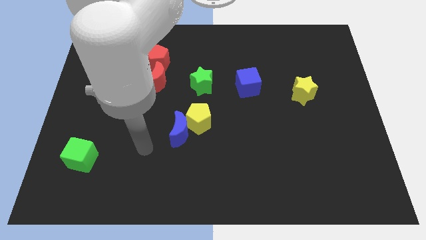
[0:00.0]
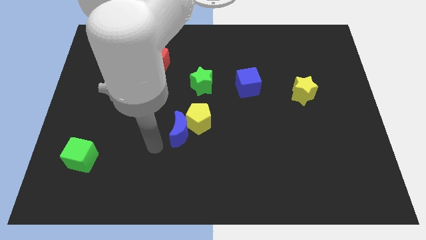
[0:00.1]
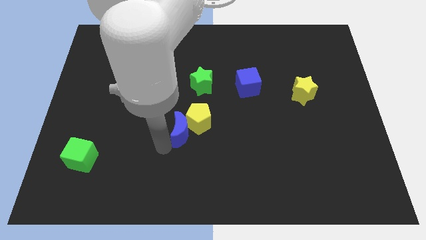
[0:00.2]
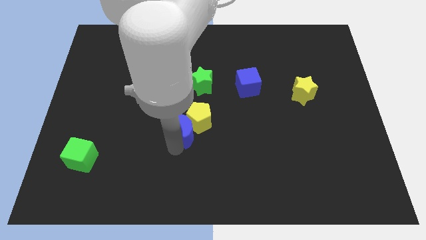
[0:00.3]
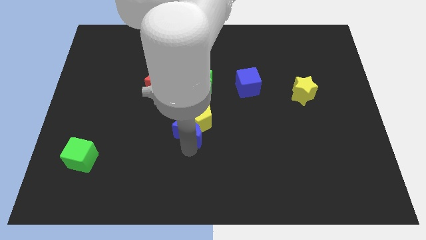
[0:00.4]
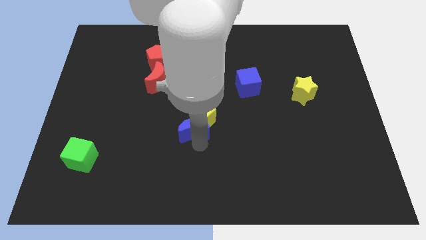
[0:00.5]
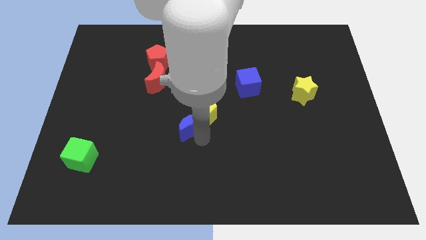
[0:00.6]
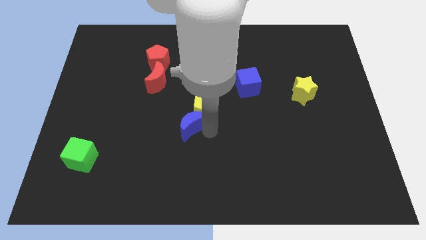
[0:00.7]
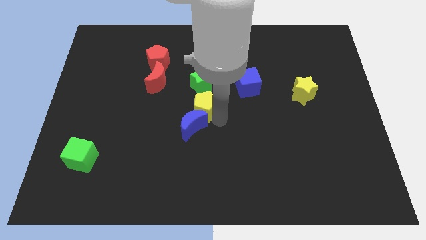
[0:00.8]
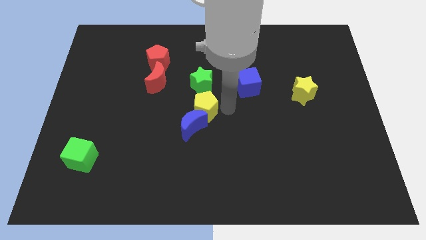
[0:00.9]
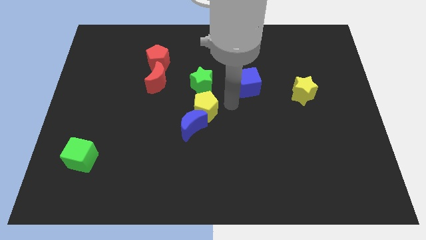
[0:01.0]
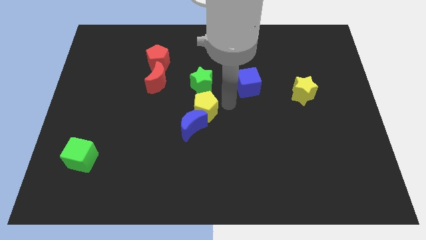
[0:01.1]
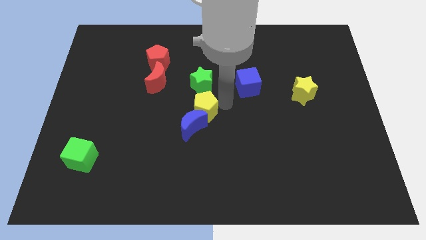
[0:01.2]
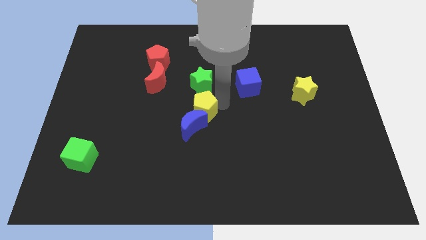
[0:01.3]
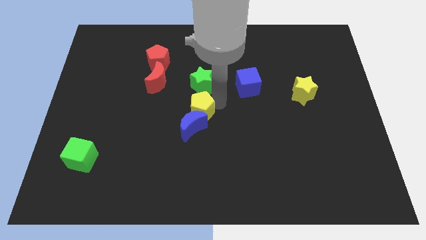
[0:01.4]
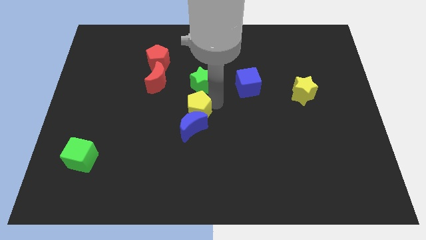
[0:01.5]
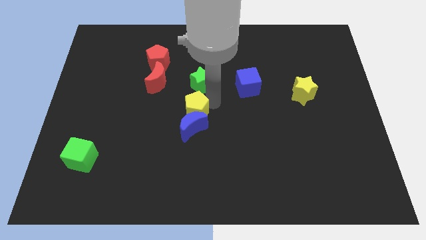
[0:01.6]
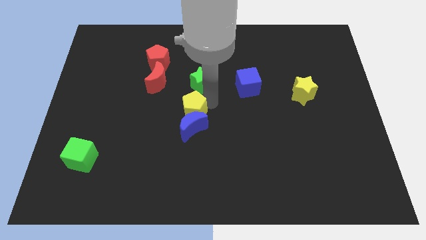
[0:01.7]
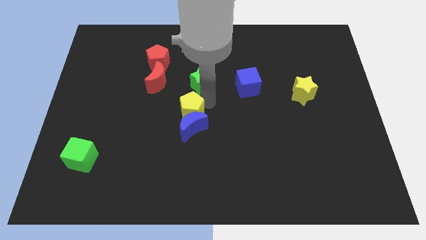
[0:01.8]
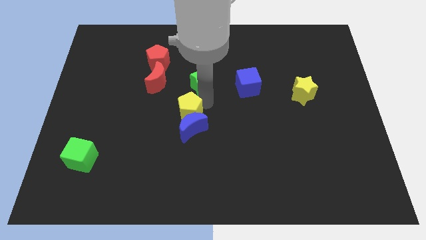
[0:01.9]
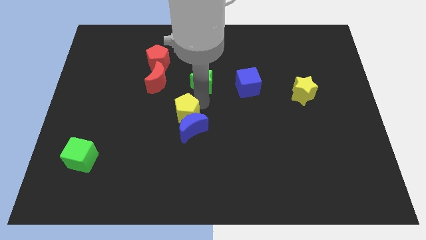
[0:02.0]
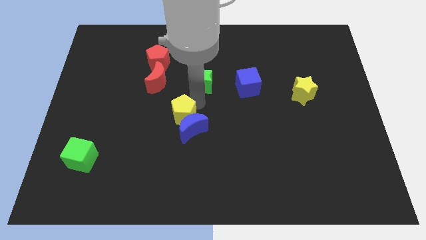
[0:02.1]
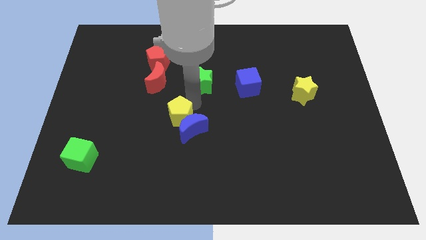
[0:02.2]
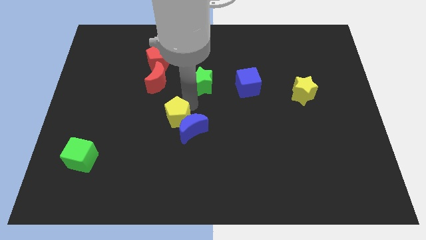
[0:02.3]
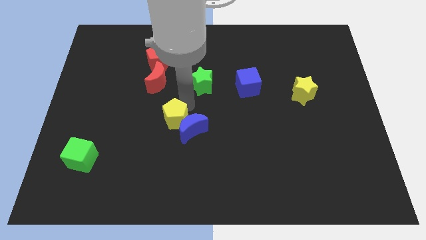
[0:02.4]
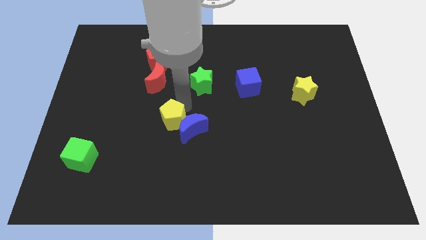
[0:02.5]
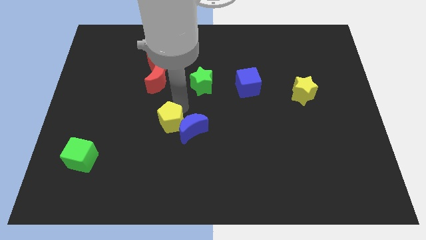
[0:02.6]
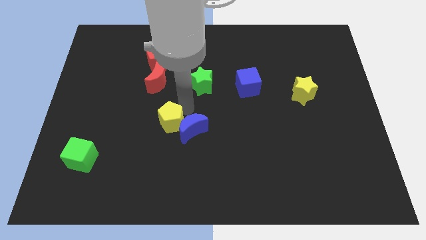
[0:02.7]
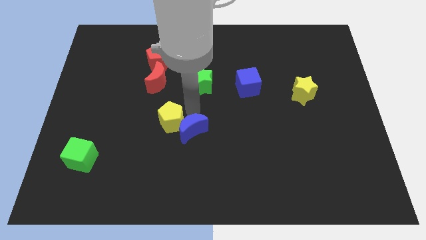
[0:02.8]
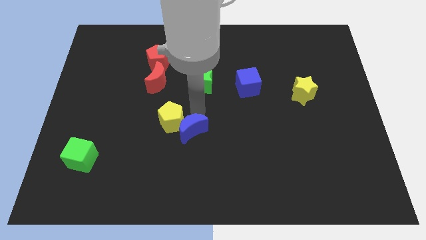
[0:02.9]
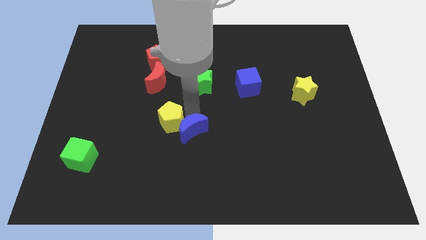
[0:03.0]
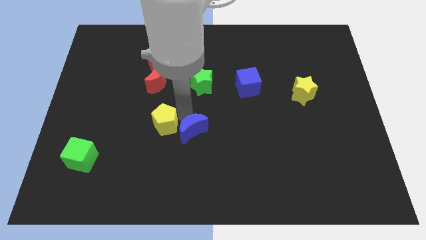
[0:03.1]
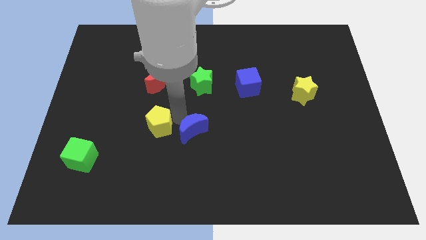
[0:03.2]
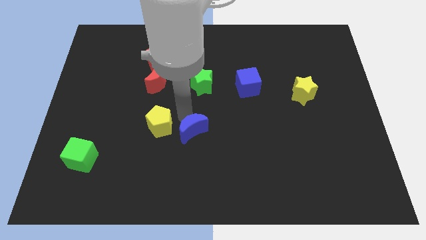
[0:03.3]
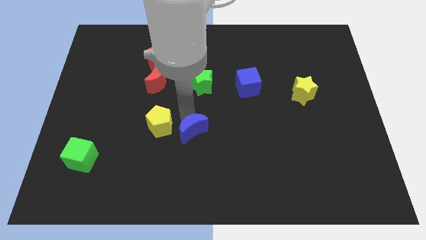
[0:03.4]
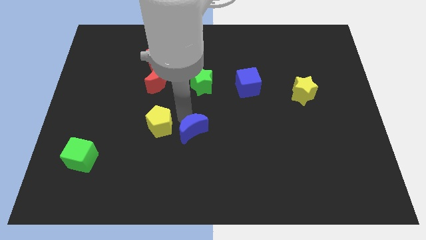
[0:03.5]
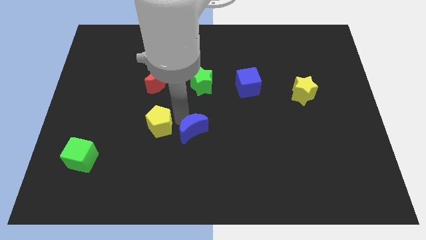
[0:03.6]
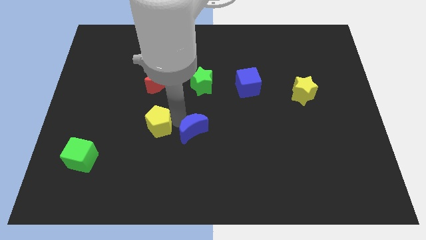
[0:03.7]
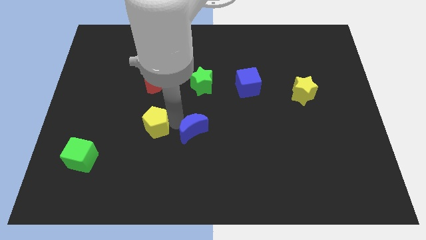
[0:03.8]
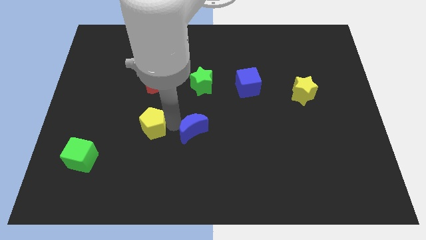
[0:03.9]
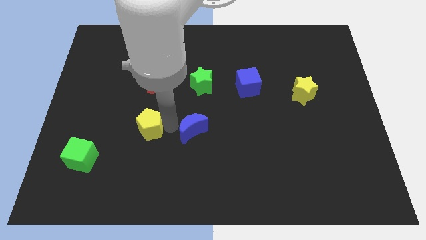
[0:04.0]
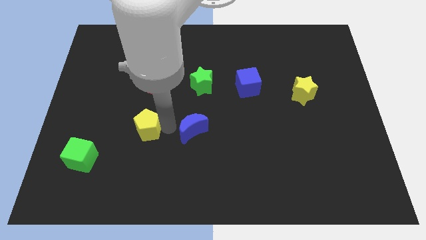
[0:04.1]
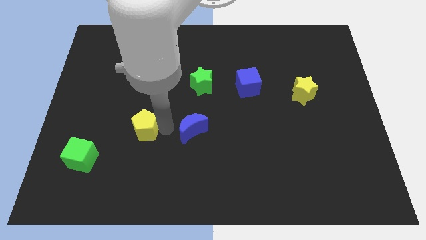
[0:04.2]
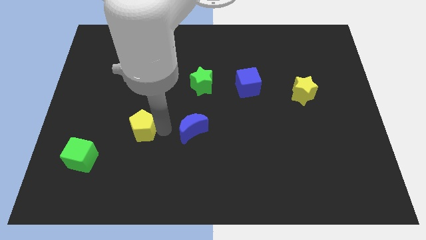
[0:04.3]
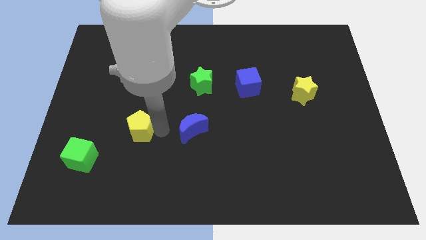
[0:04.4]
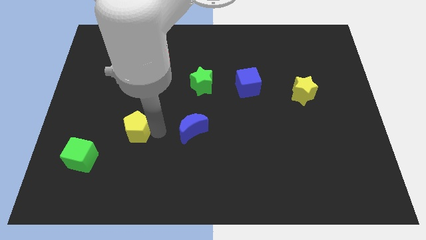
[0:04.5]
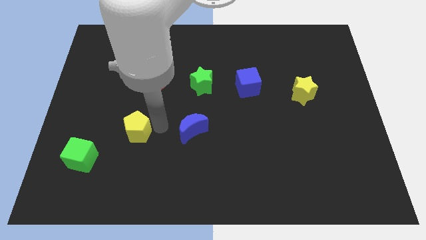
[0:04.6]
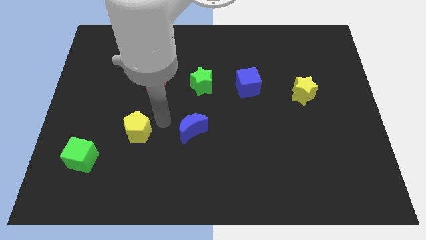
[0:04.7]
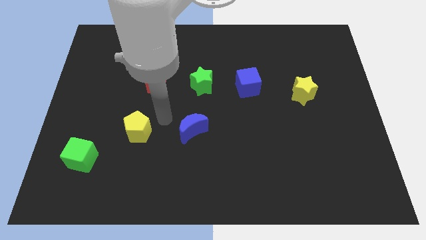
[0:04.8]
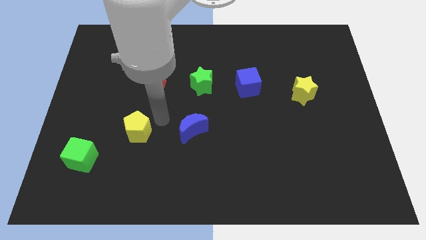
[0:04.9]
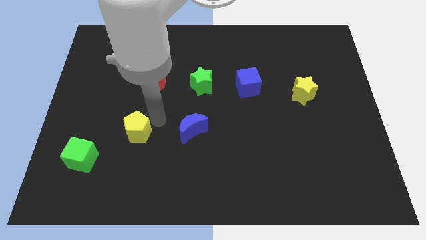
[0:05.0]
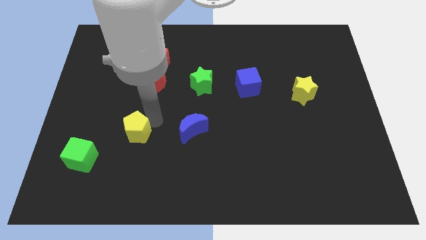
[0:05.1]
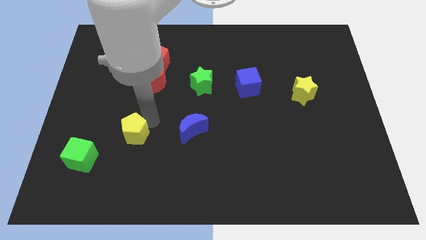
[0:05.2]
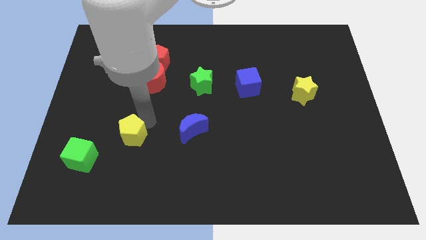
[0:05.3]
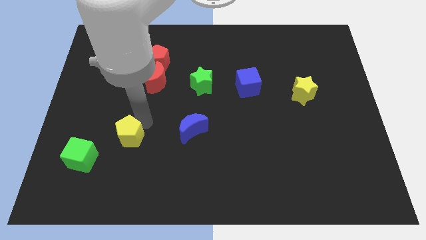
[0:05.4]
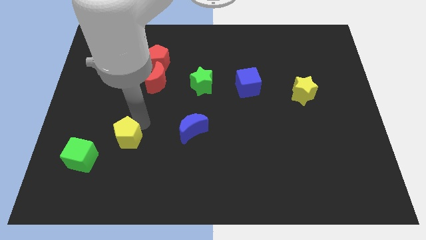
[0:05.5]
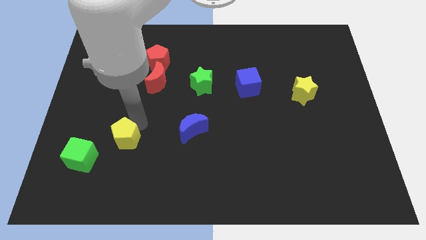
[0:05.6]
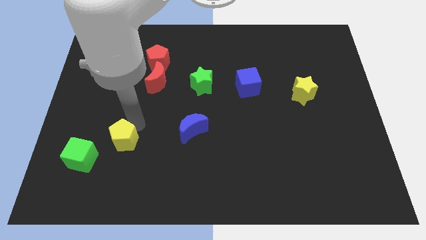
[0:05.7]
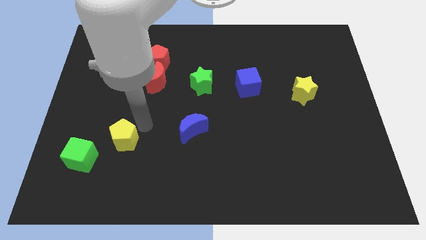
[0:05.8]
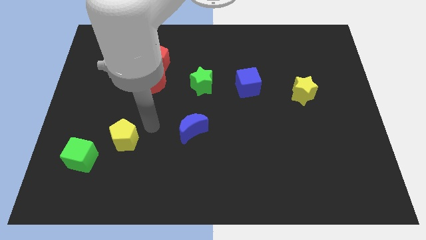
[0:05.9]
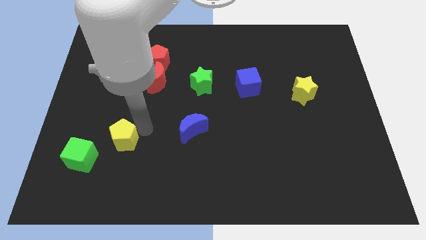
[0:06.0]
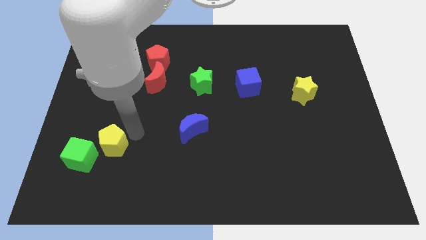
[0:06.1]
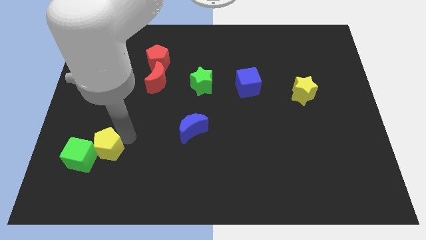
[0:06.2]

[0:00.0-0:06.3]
put the yellow pentagon close to the green cube

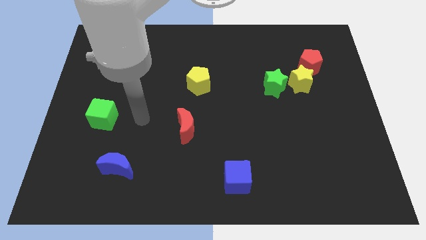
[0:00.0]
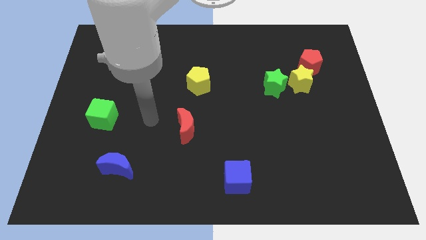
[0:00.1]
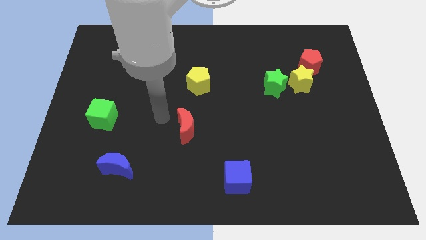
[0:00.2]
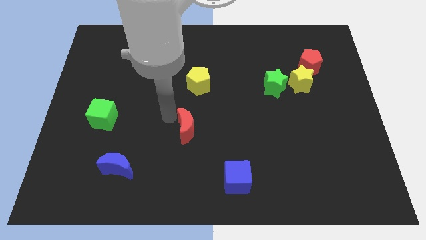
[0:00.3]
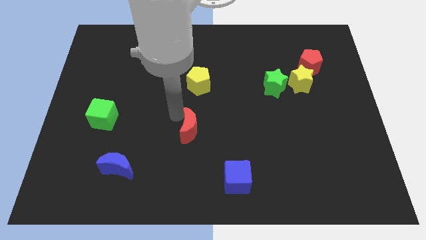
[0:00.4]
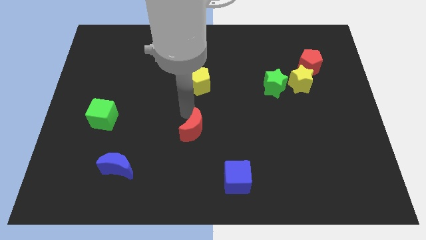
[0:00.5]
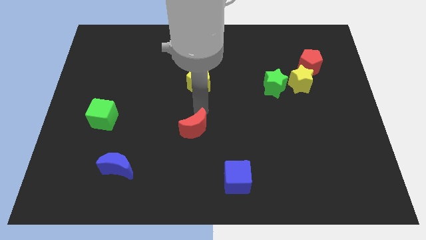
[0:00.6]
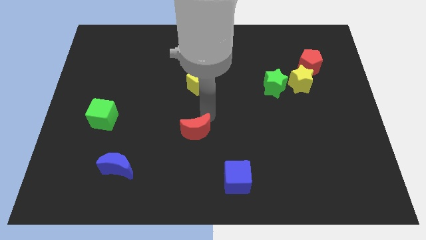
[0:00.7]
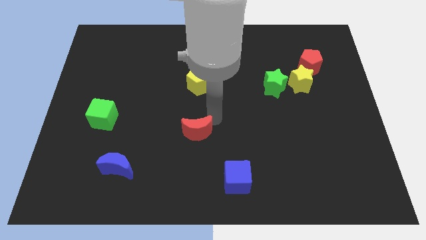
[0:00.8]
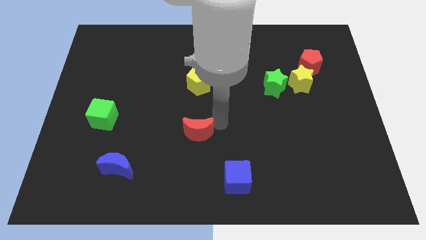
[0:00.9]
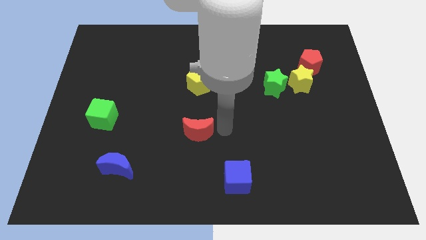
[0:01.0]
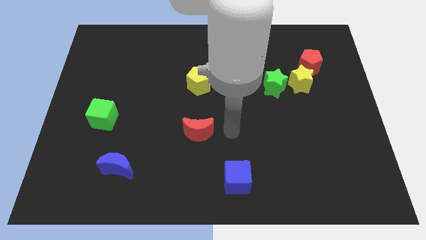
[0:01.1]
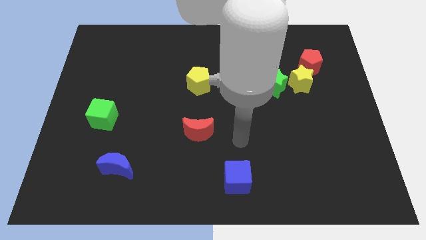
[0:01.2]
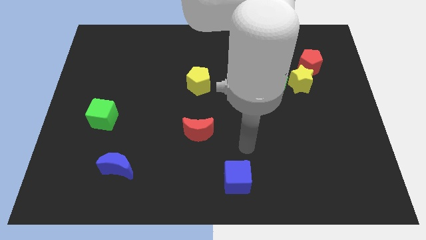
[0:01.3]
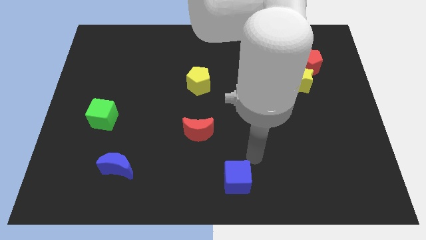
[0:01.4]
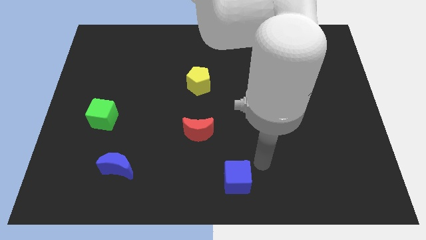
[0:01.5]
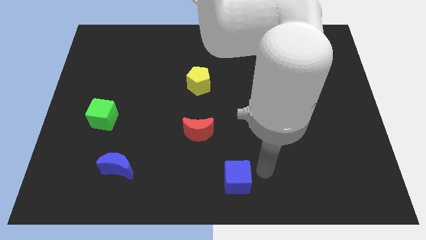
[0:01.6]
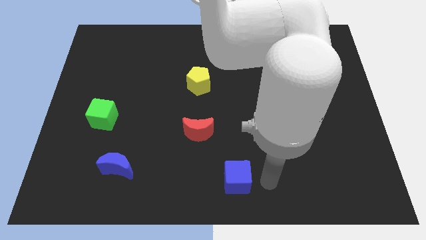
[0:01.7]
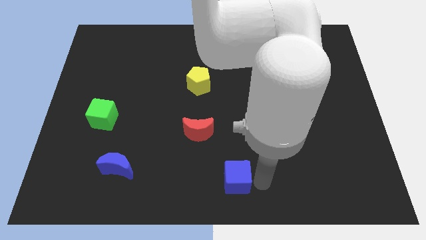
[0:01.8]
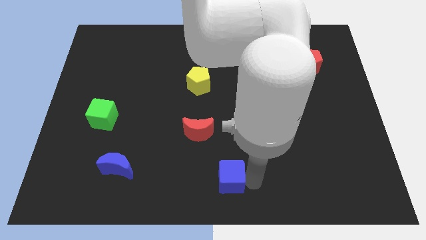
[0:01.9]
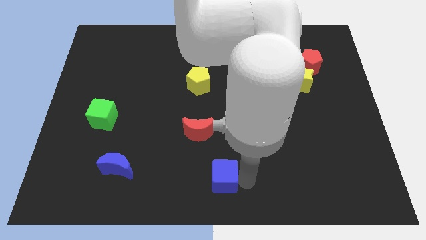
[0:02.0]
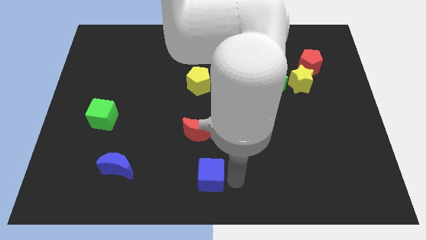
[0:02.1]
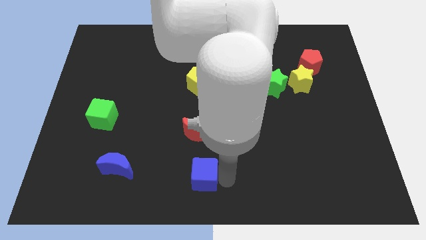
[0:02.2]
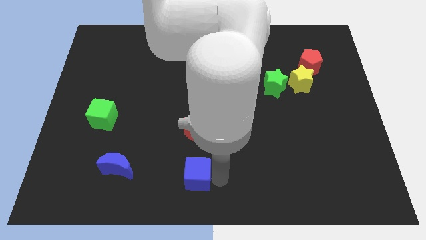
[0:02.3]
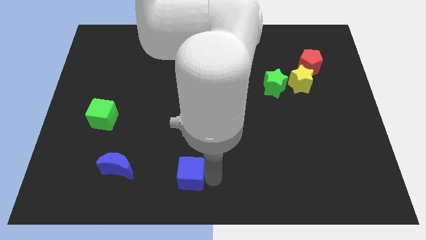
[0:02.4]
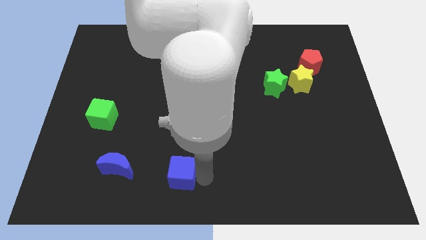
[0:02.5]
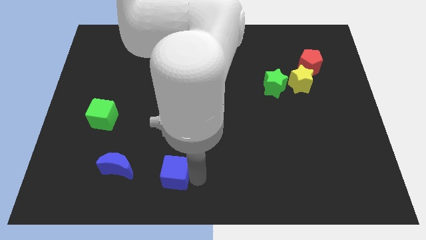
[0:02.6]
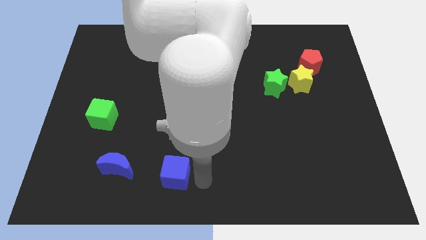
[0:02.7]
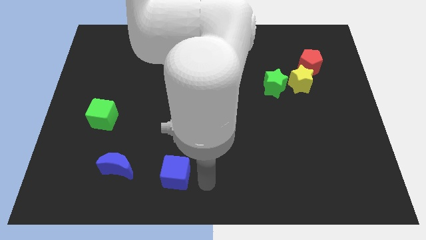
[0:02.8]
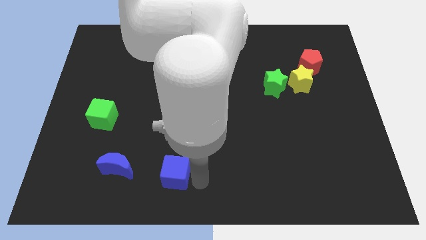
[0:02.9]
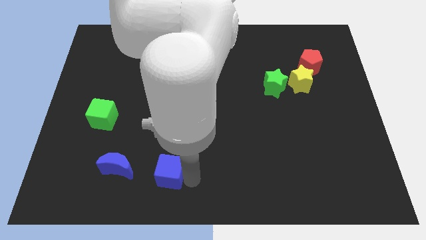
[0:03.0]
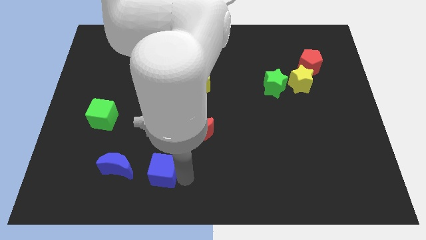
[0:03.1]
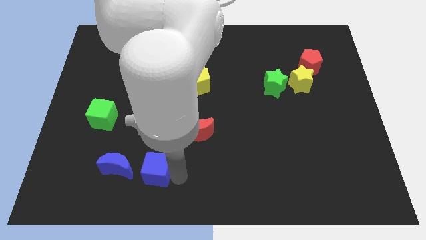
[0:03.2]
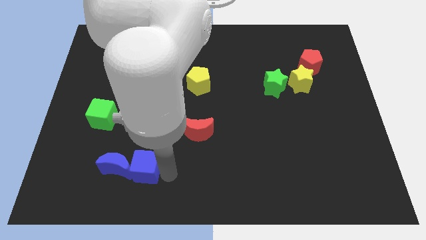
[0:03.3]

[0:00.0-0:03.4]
move the blue cube close to the blue moon
